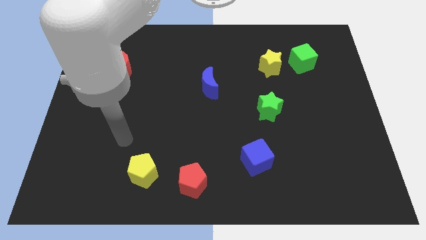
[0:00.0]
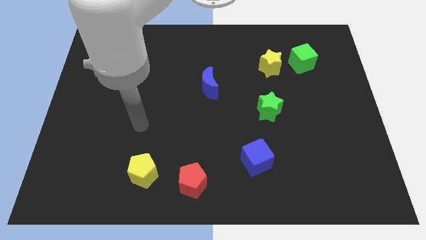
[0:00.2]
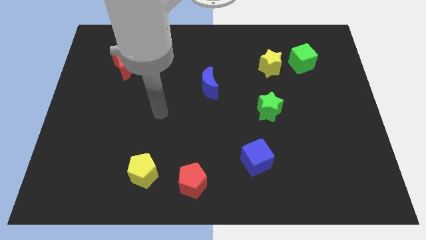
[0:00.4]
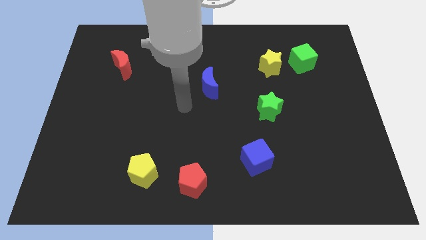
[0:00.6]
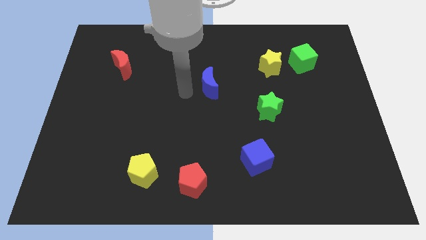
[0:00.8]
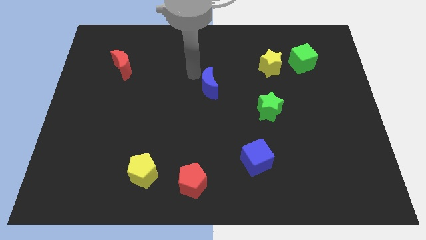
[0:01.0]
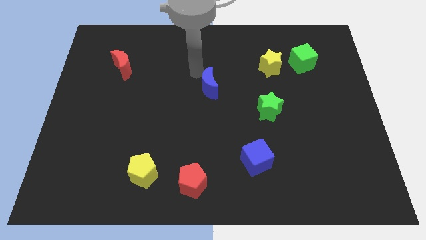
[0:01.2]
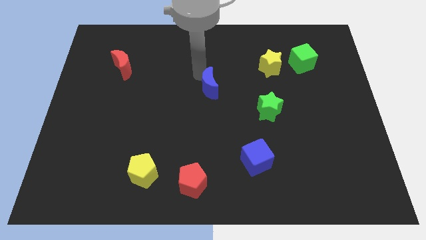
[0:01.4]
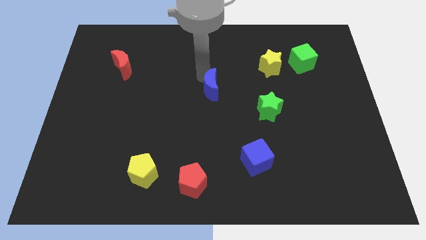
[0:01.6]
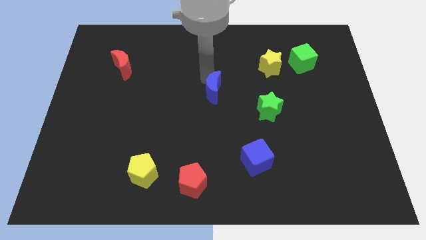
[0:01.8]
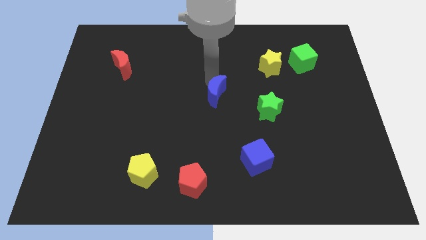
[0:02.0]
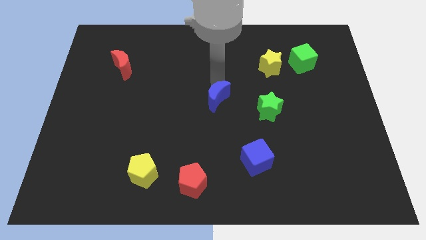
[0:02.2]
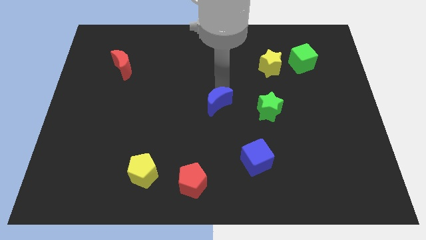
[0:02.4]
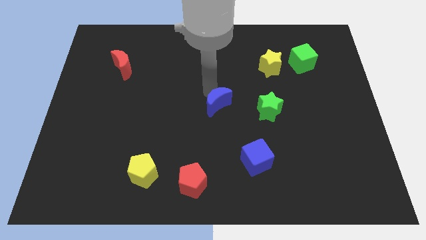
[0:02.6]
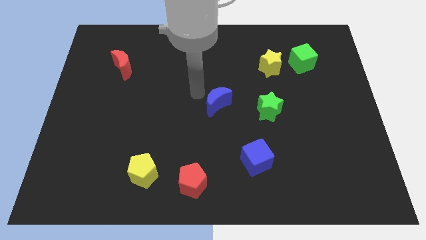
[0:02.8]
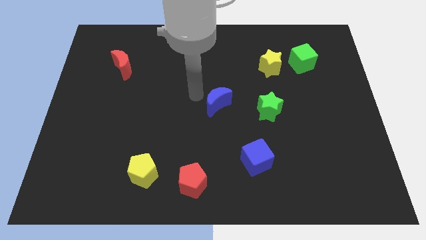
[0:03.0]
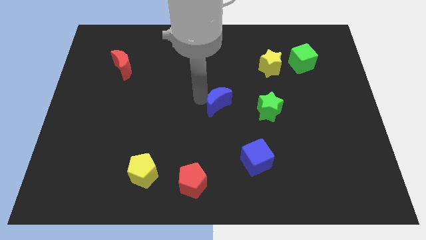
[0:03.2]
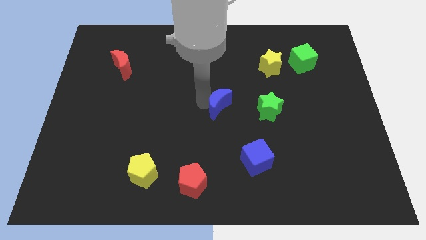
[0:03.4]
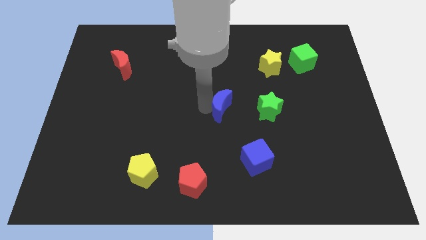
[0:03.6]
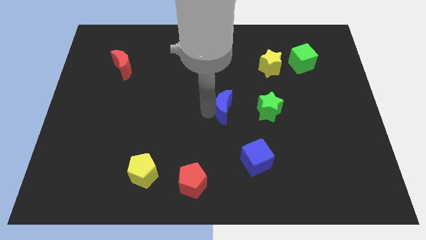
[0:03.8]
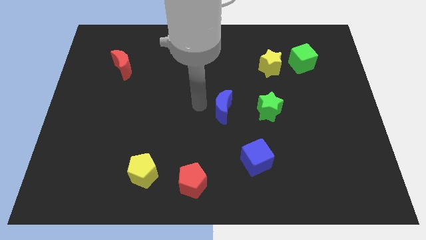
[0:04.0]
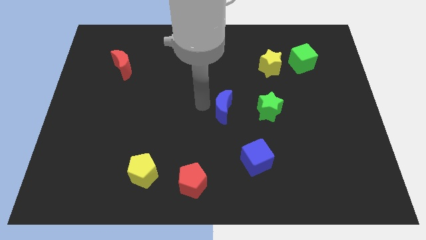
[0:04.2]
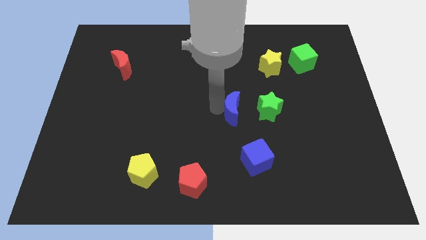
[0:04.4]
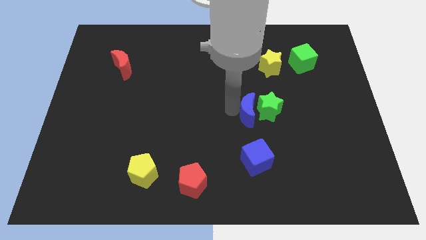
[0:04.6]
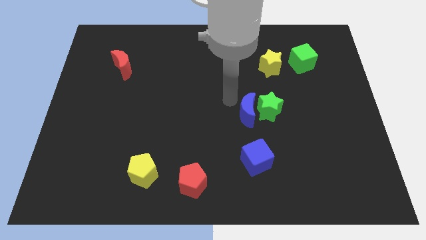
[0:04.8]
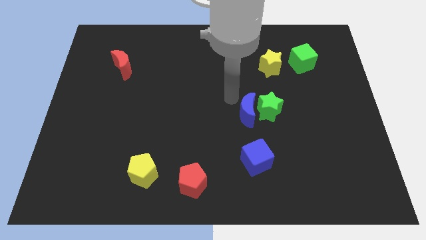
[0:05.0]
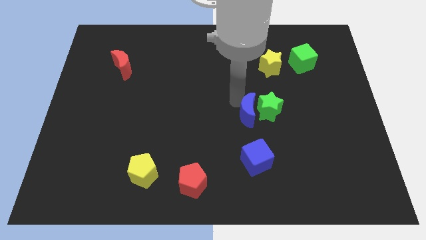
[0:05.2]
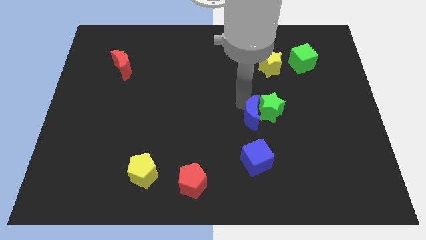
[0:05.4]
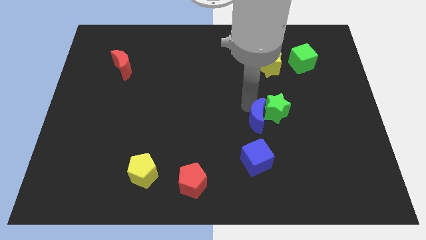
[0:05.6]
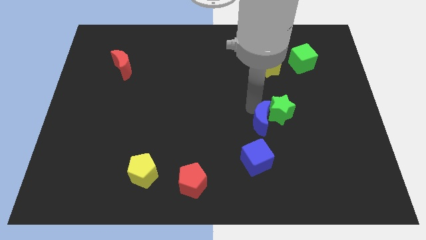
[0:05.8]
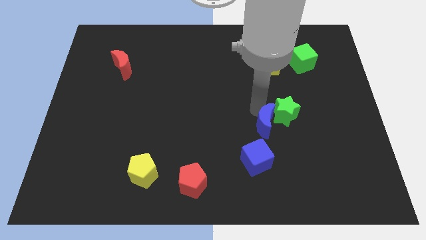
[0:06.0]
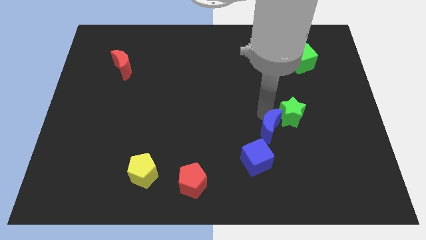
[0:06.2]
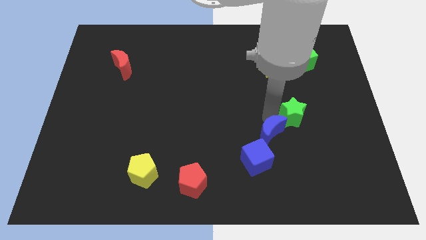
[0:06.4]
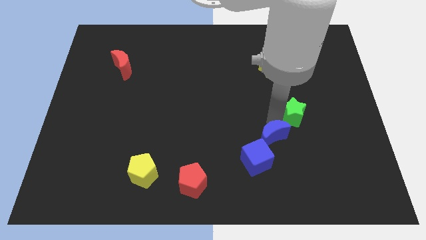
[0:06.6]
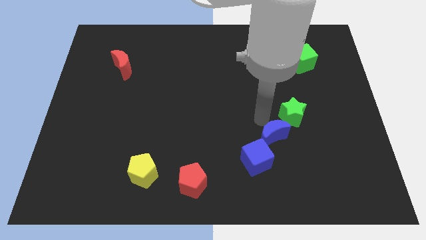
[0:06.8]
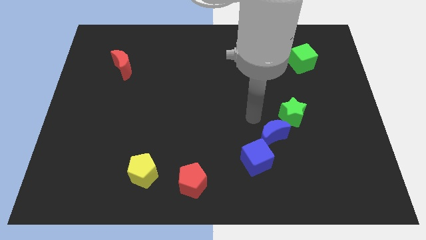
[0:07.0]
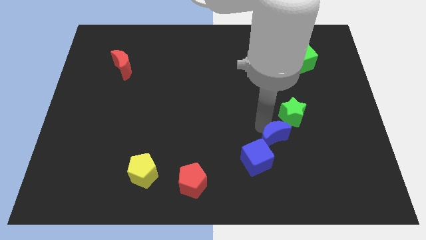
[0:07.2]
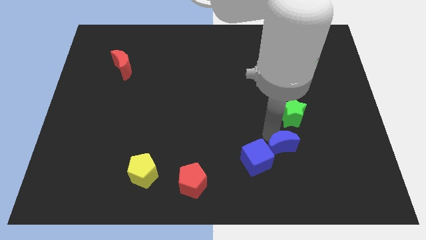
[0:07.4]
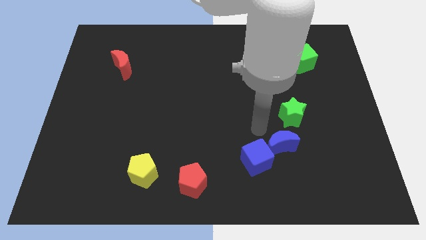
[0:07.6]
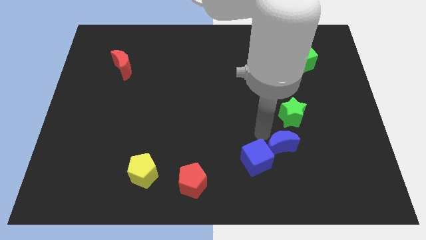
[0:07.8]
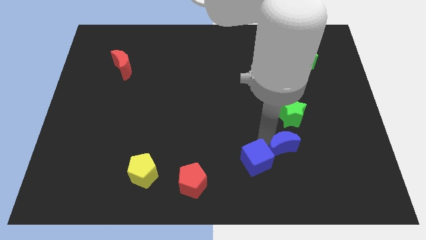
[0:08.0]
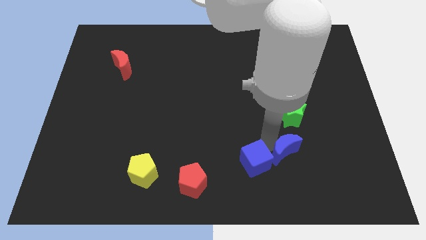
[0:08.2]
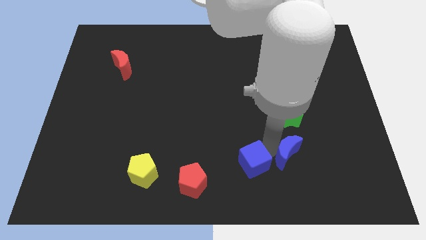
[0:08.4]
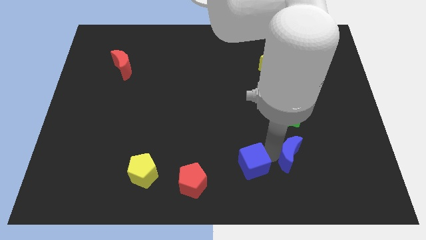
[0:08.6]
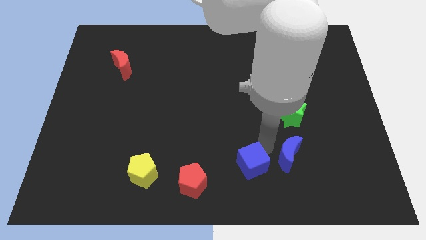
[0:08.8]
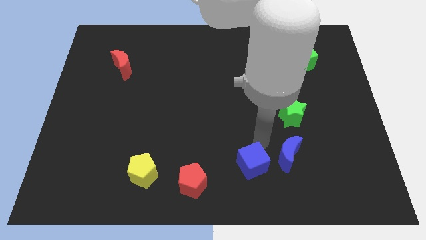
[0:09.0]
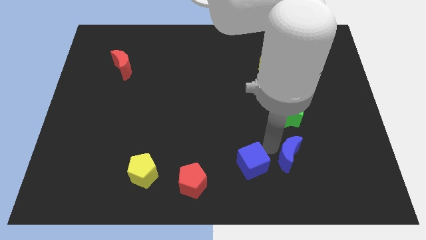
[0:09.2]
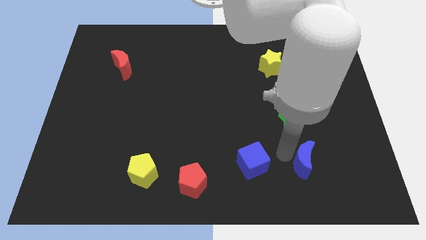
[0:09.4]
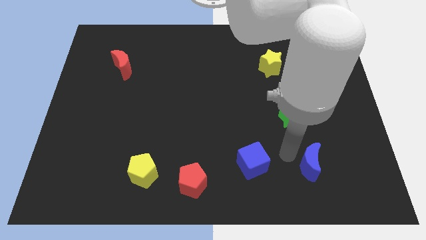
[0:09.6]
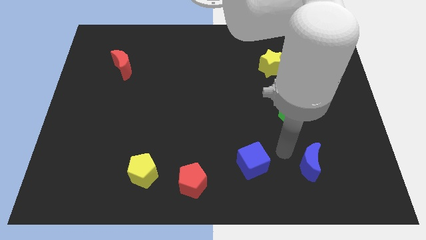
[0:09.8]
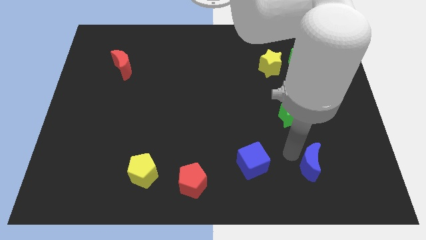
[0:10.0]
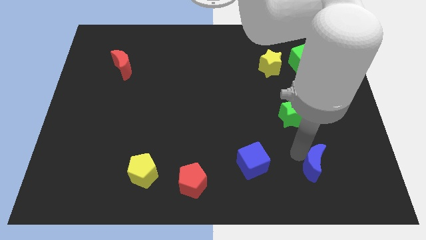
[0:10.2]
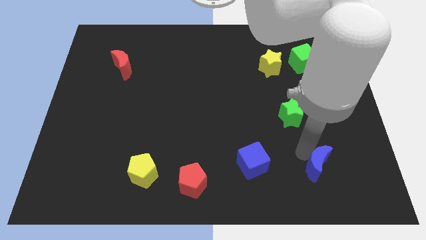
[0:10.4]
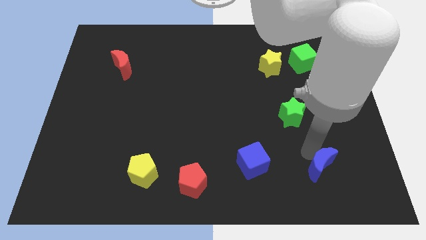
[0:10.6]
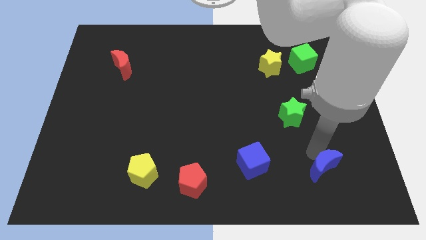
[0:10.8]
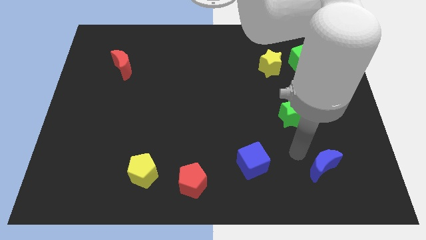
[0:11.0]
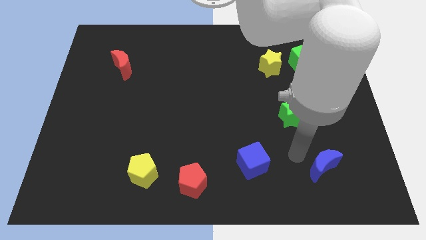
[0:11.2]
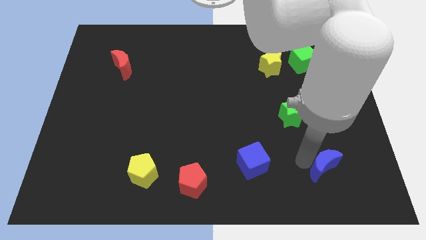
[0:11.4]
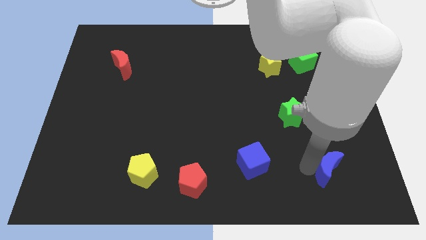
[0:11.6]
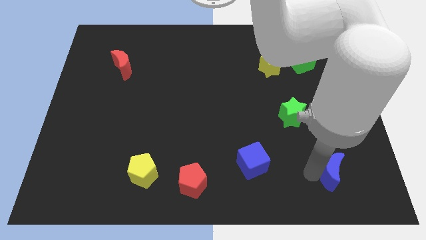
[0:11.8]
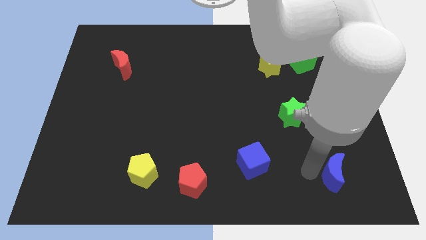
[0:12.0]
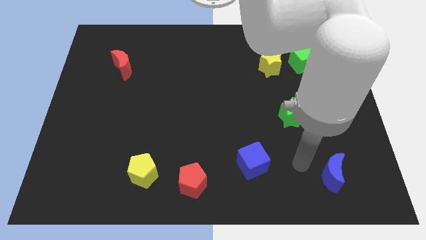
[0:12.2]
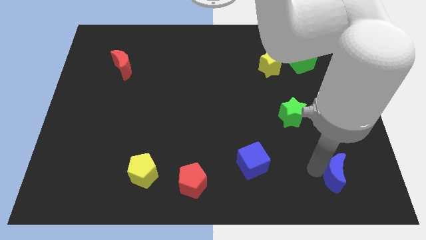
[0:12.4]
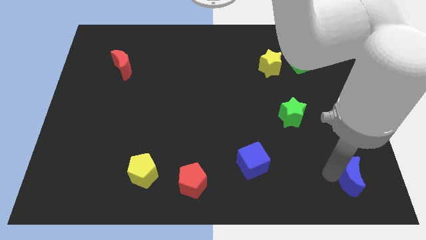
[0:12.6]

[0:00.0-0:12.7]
push the blue moon to the bottom right of the board

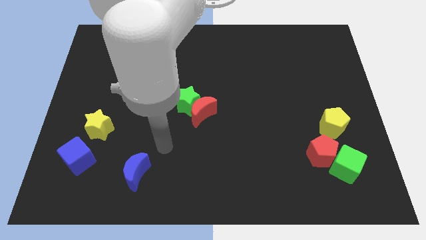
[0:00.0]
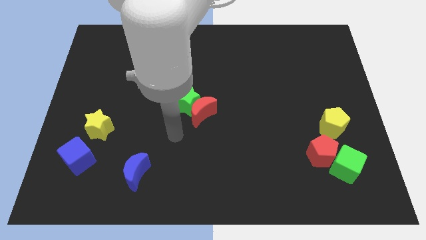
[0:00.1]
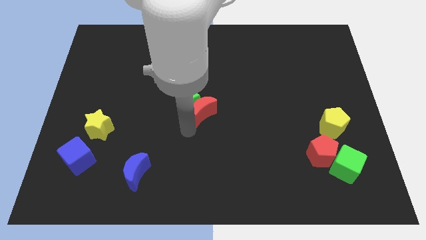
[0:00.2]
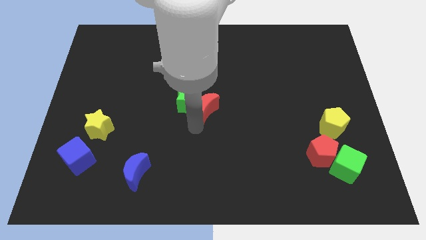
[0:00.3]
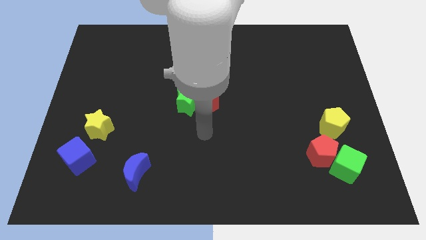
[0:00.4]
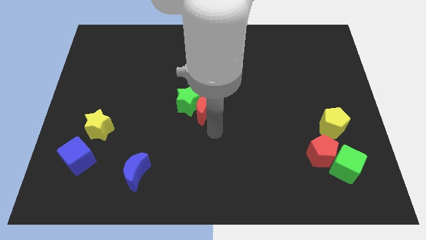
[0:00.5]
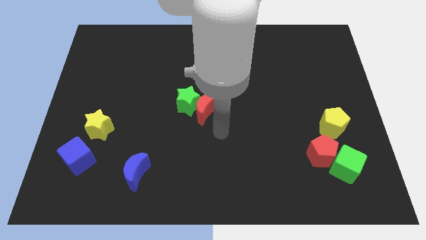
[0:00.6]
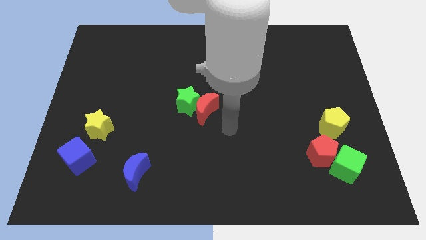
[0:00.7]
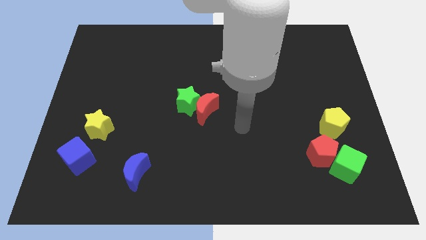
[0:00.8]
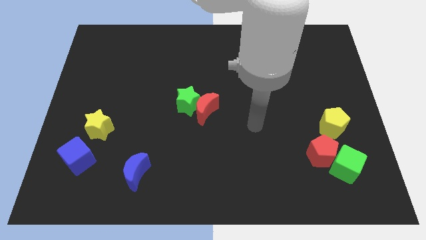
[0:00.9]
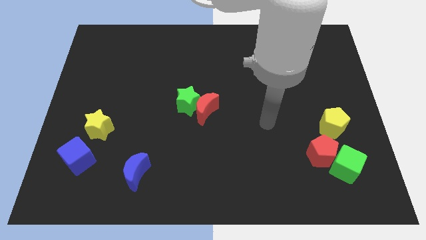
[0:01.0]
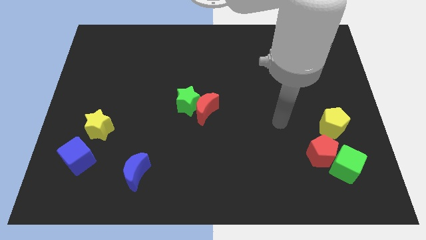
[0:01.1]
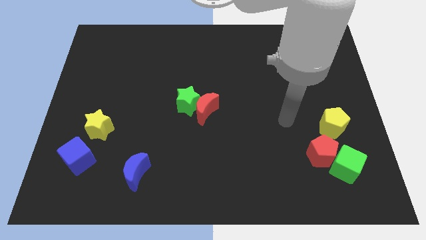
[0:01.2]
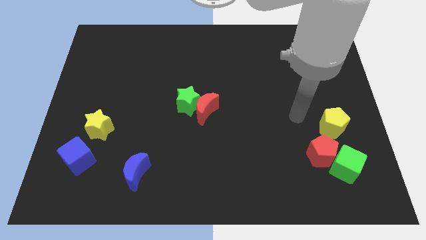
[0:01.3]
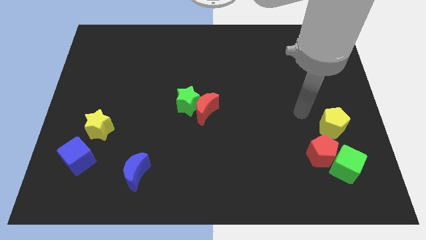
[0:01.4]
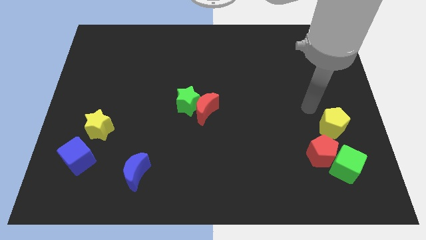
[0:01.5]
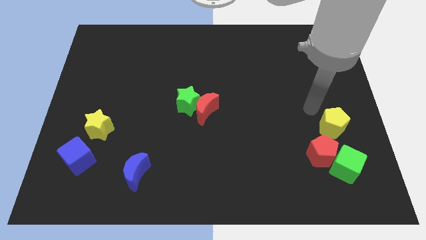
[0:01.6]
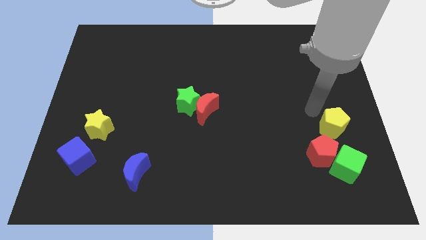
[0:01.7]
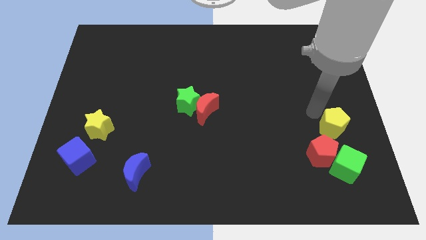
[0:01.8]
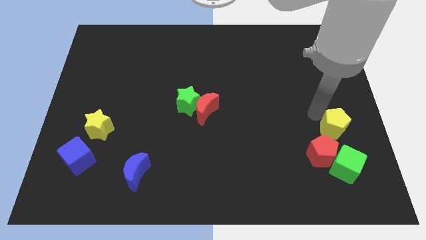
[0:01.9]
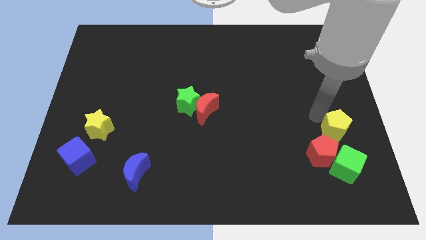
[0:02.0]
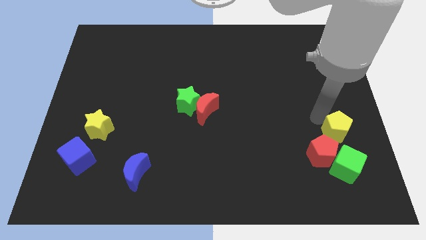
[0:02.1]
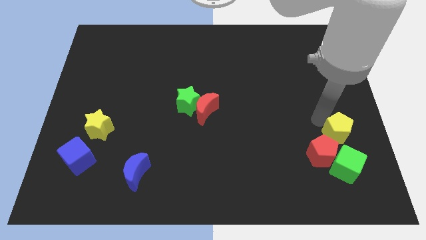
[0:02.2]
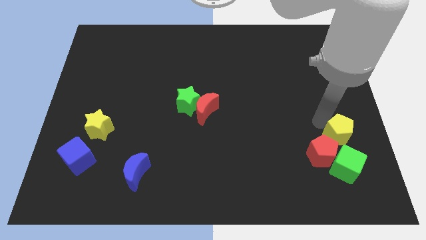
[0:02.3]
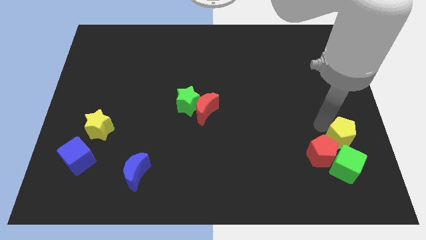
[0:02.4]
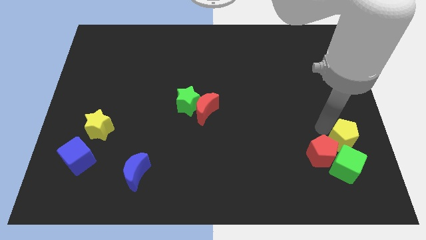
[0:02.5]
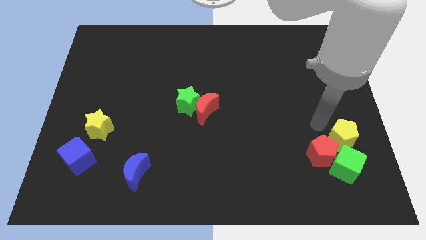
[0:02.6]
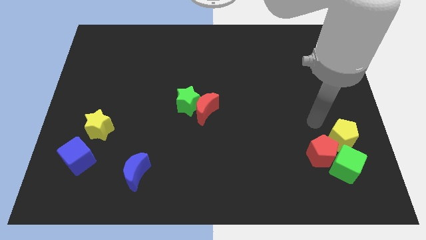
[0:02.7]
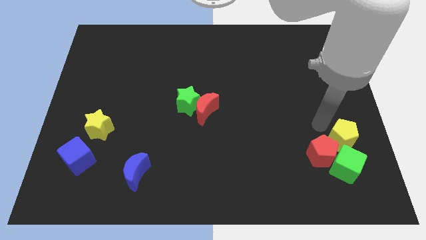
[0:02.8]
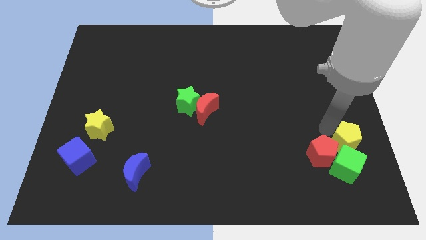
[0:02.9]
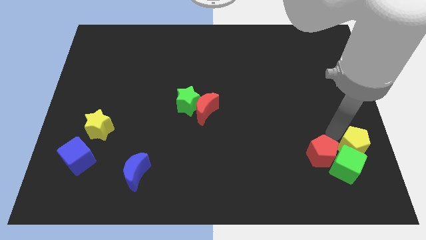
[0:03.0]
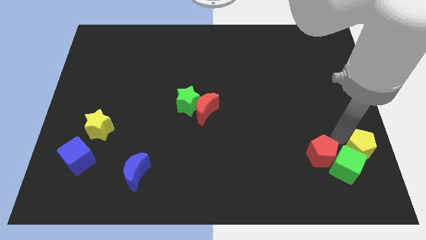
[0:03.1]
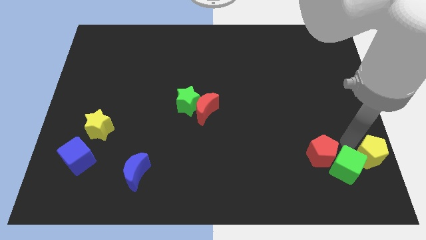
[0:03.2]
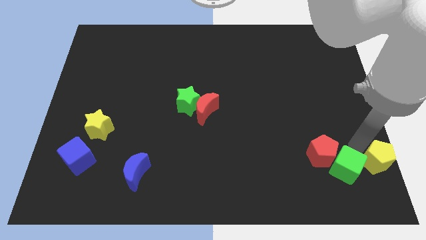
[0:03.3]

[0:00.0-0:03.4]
put the yellow pentagon to the lower right corner
